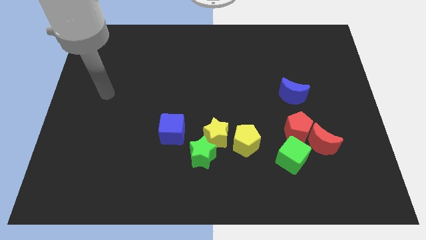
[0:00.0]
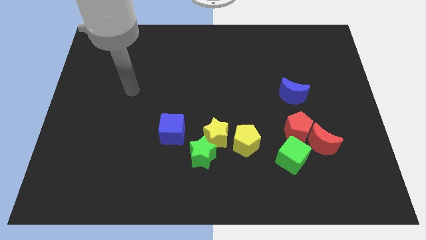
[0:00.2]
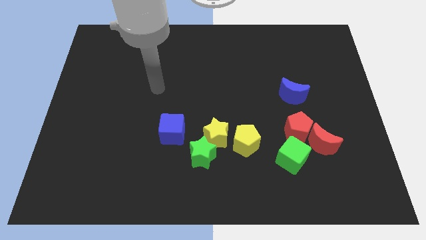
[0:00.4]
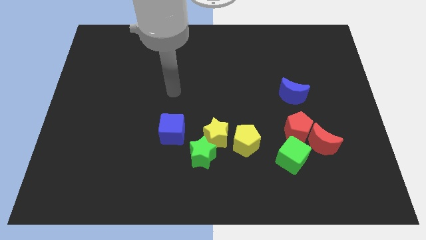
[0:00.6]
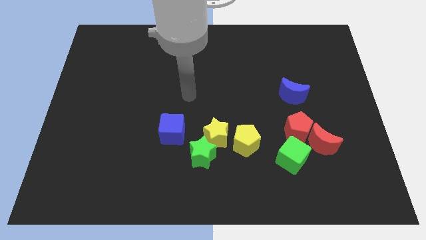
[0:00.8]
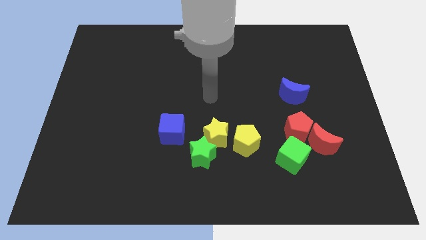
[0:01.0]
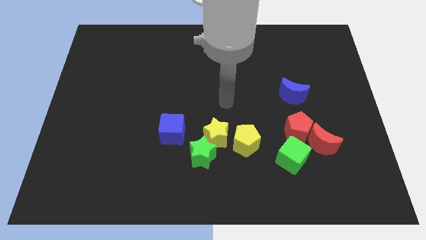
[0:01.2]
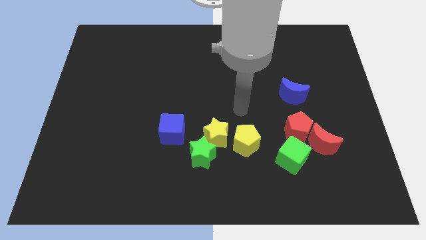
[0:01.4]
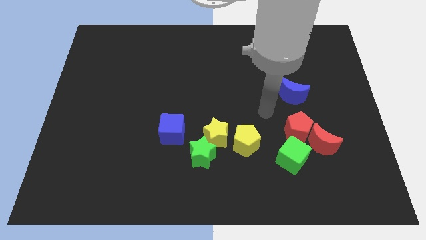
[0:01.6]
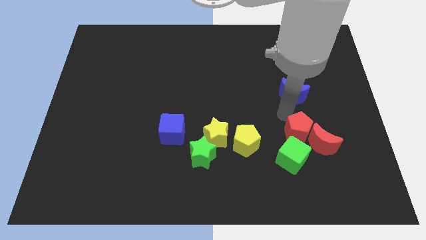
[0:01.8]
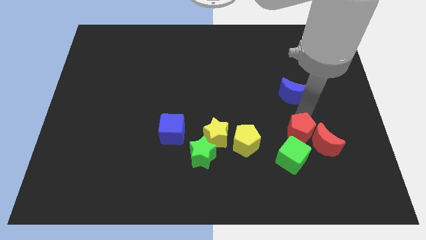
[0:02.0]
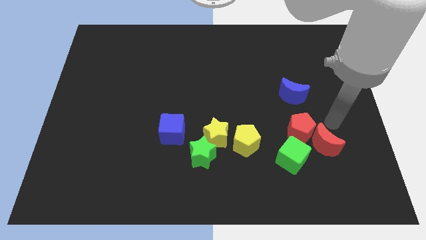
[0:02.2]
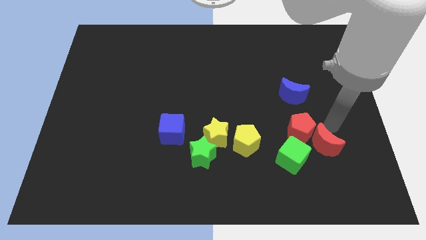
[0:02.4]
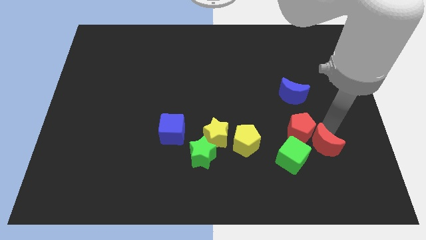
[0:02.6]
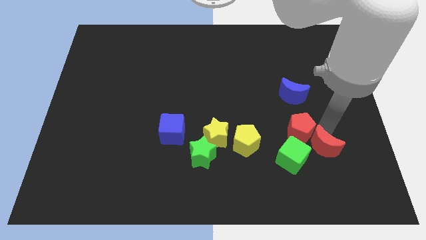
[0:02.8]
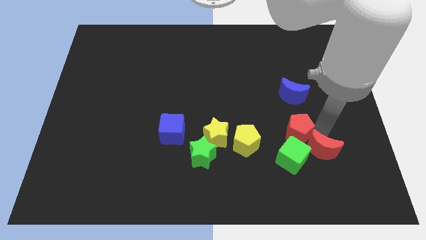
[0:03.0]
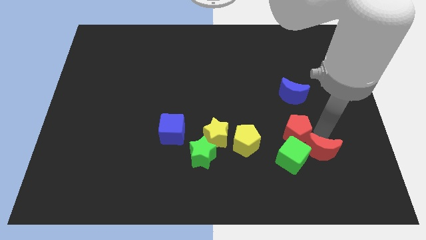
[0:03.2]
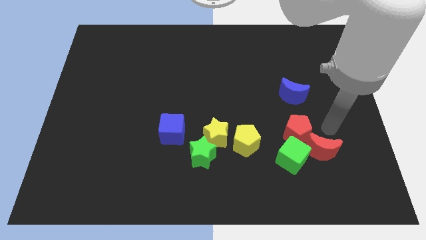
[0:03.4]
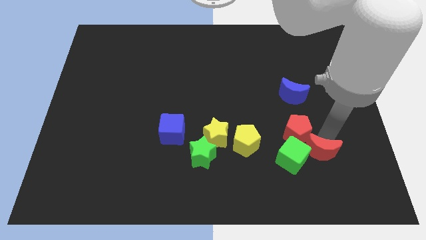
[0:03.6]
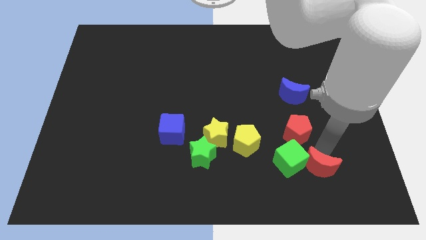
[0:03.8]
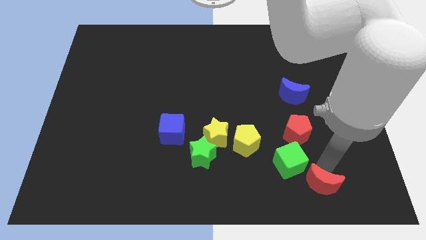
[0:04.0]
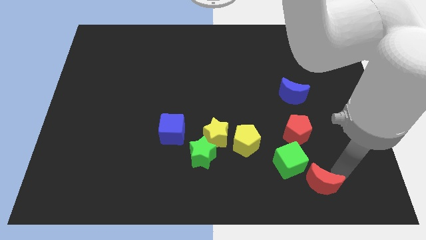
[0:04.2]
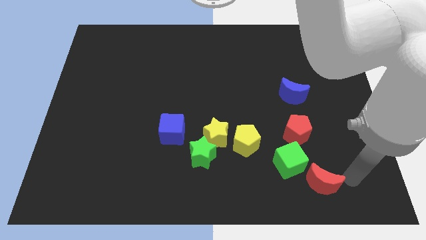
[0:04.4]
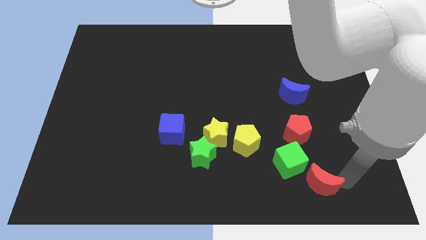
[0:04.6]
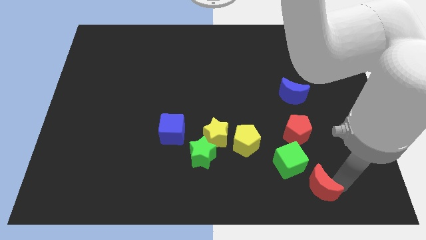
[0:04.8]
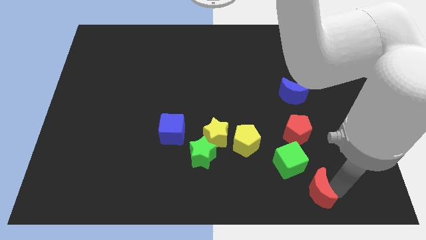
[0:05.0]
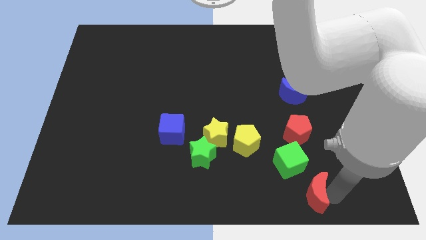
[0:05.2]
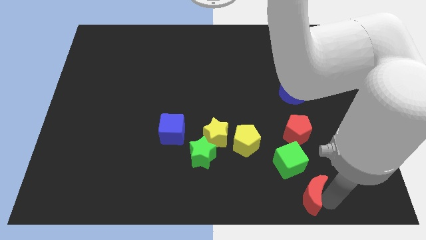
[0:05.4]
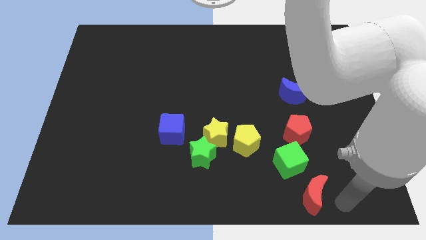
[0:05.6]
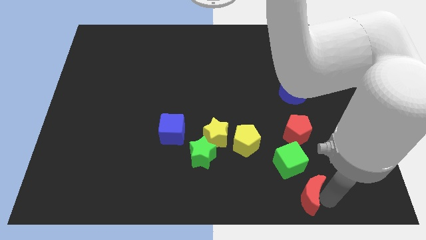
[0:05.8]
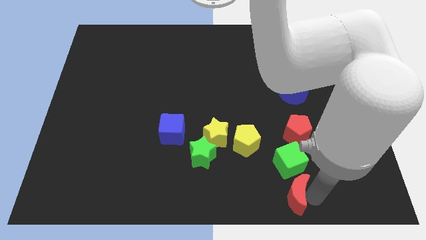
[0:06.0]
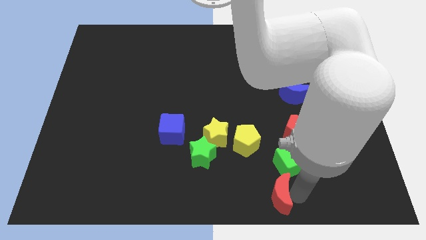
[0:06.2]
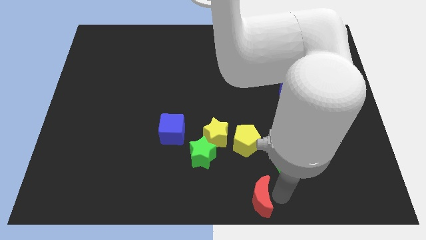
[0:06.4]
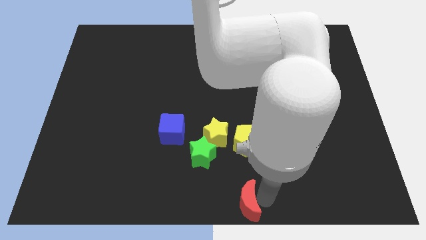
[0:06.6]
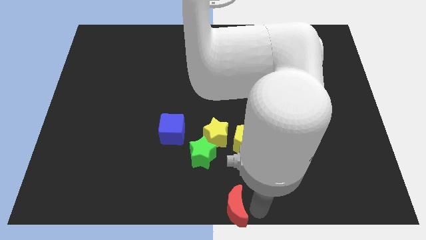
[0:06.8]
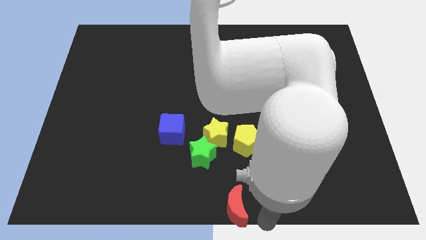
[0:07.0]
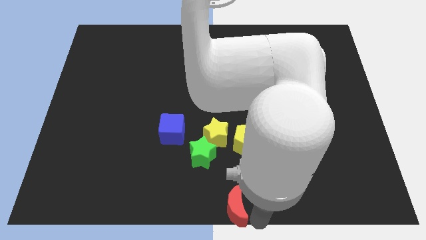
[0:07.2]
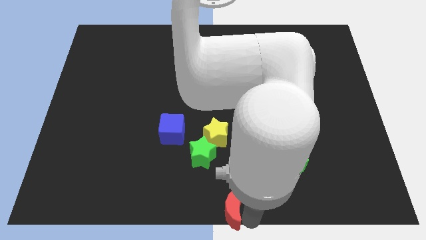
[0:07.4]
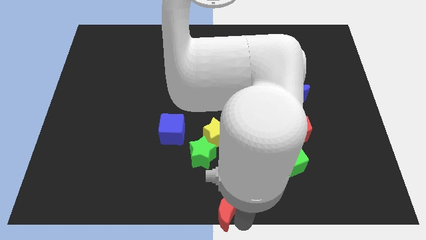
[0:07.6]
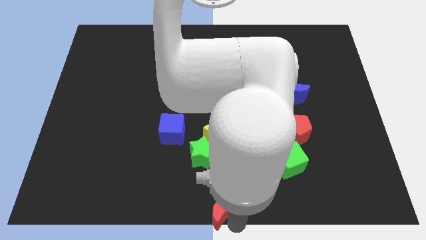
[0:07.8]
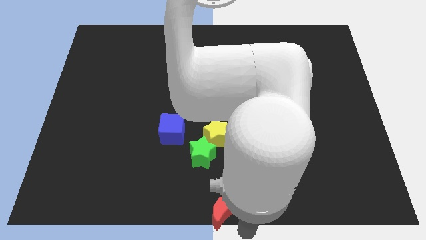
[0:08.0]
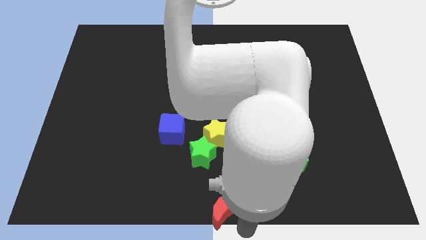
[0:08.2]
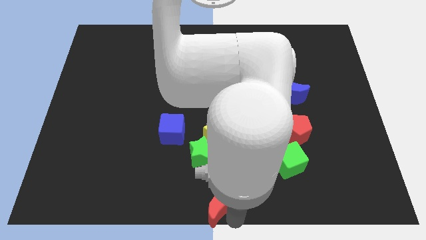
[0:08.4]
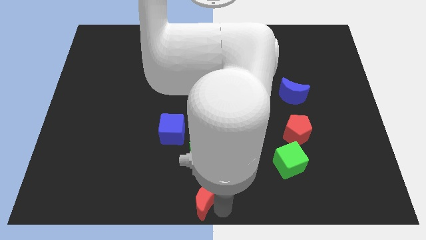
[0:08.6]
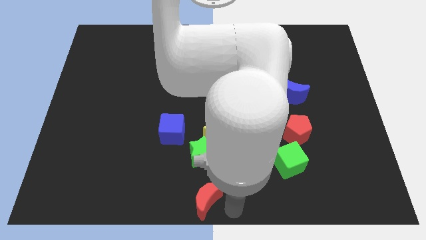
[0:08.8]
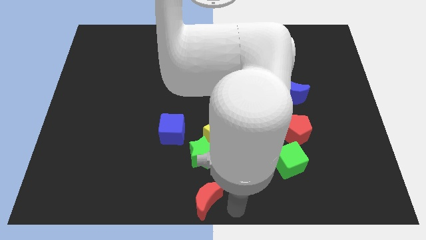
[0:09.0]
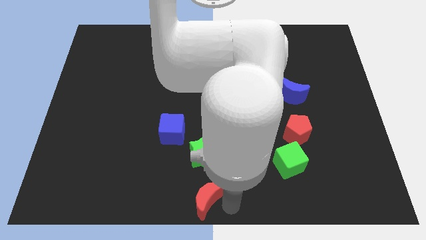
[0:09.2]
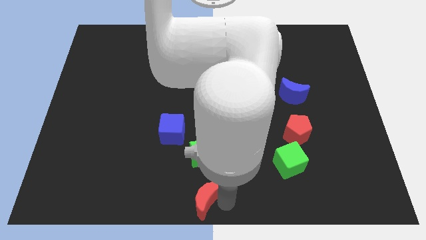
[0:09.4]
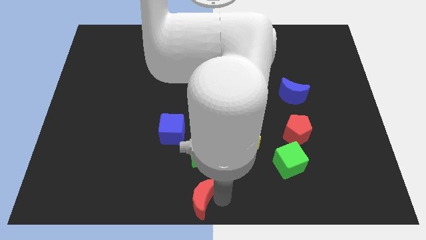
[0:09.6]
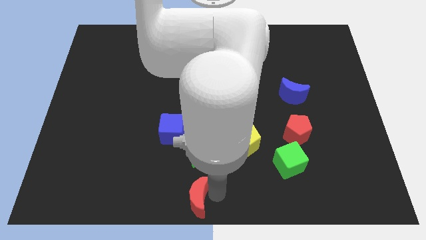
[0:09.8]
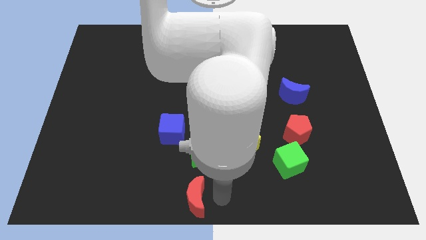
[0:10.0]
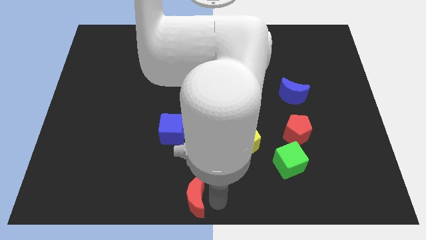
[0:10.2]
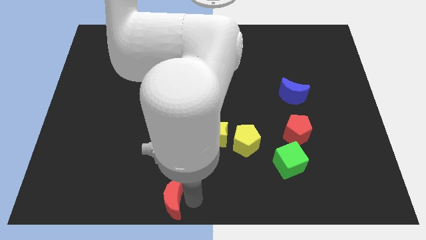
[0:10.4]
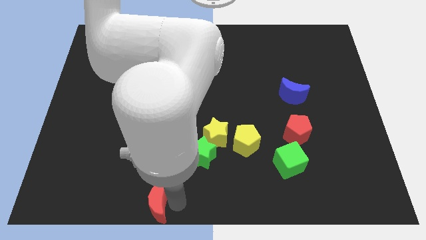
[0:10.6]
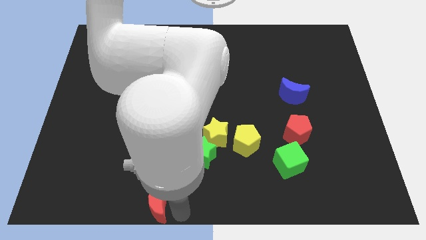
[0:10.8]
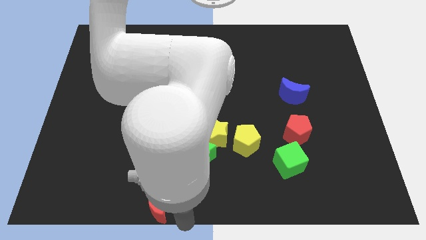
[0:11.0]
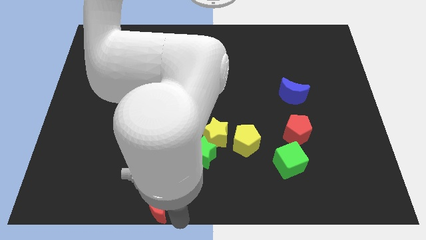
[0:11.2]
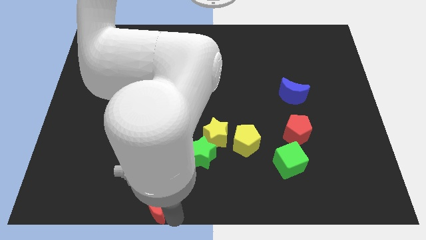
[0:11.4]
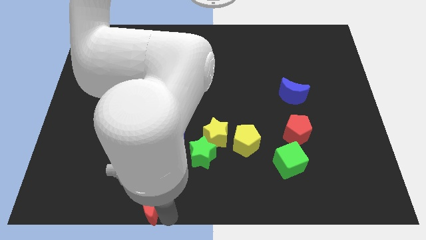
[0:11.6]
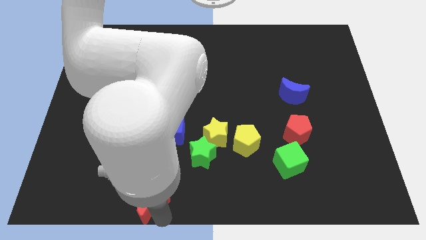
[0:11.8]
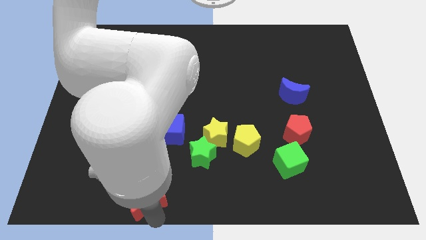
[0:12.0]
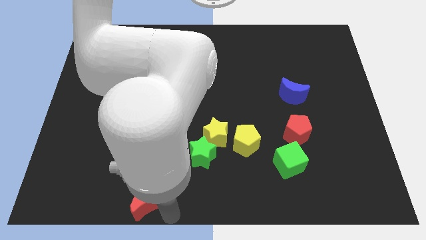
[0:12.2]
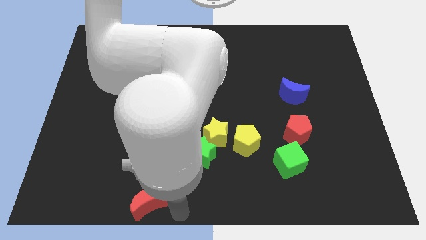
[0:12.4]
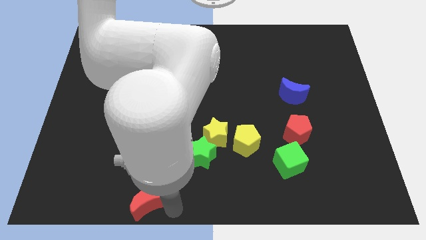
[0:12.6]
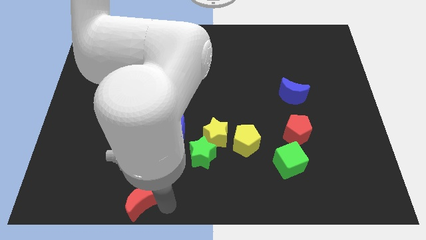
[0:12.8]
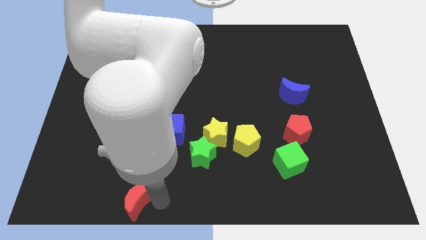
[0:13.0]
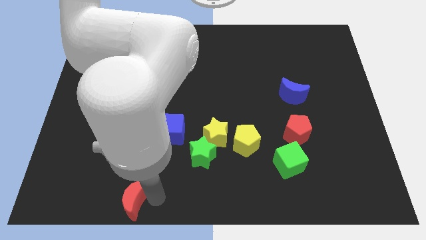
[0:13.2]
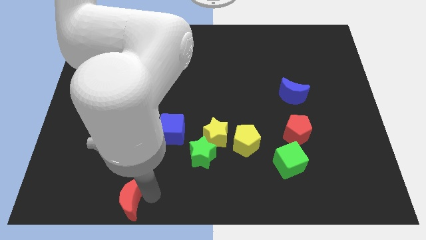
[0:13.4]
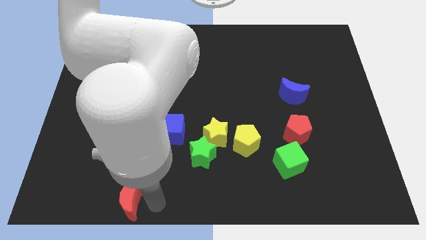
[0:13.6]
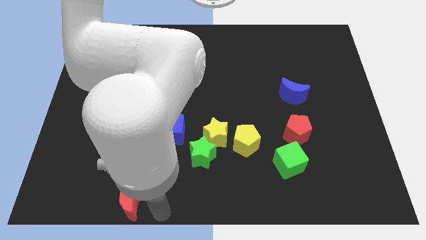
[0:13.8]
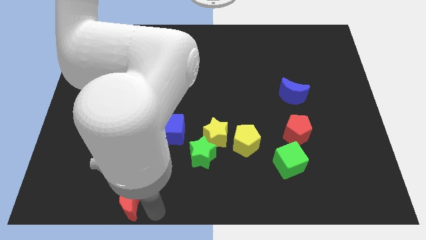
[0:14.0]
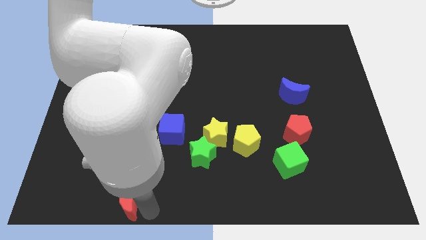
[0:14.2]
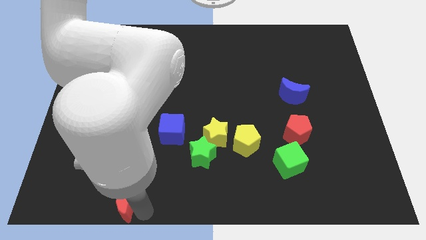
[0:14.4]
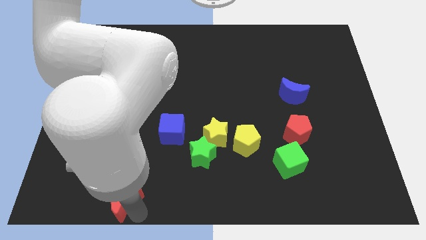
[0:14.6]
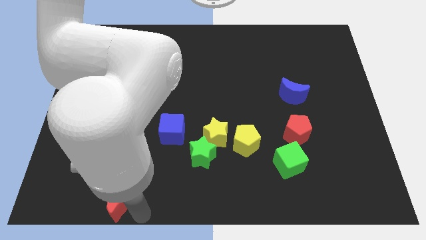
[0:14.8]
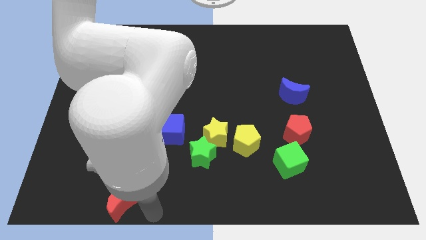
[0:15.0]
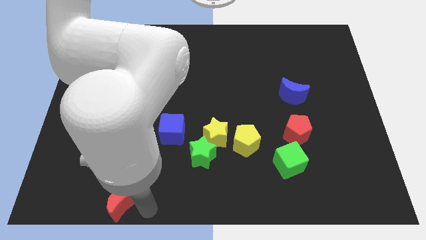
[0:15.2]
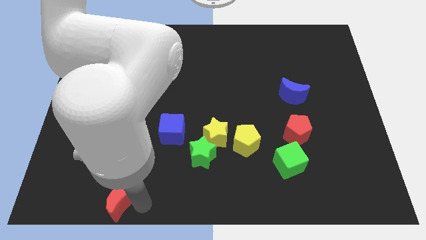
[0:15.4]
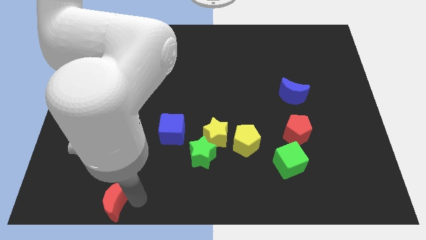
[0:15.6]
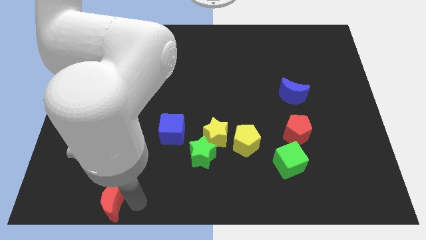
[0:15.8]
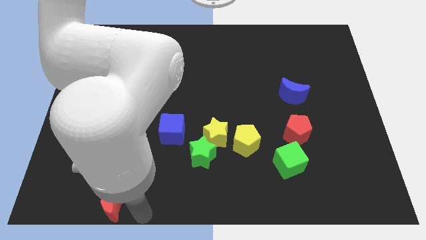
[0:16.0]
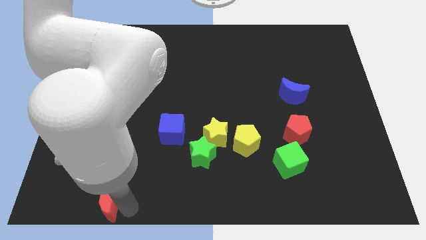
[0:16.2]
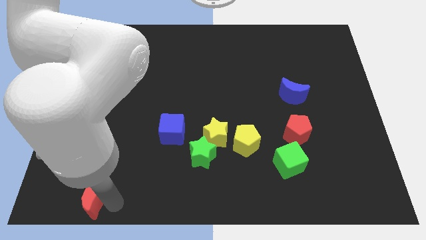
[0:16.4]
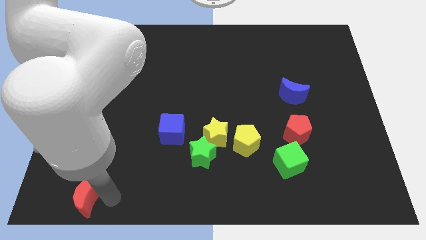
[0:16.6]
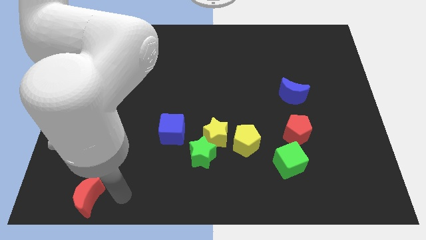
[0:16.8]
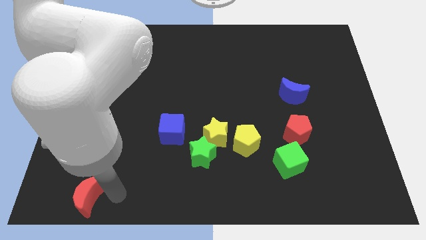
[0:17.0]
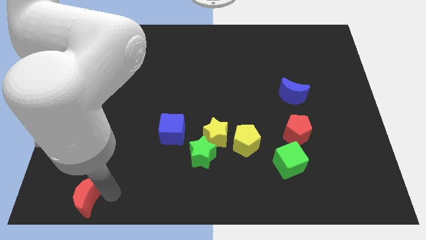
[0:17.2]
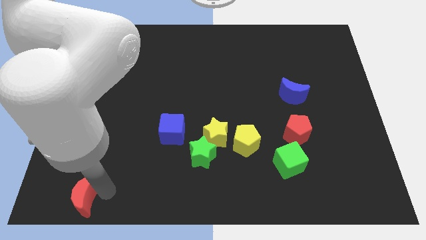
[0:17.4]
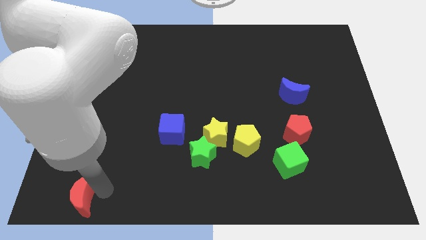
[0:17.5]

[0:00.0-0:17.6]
push the red moon to the bottom left of the board
